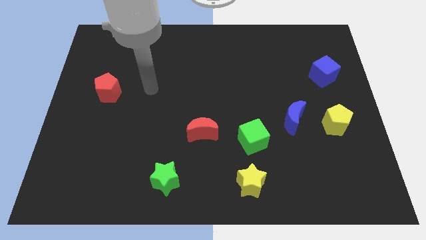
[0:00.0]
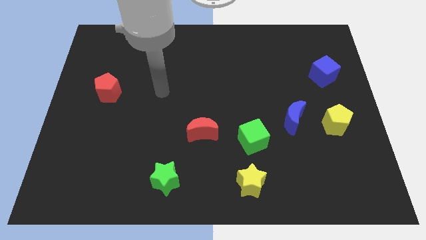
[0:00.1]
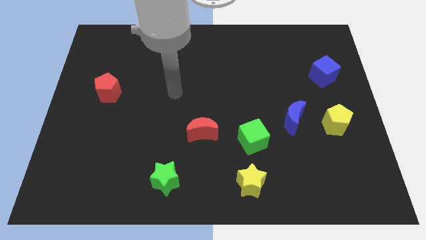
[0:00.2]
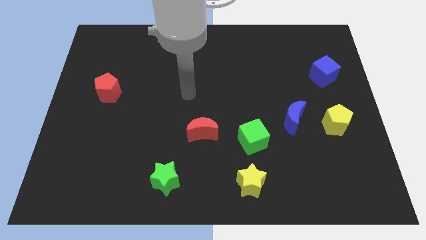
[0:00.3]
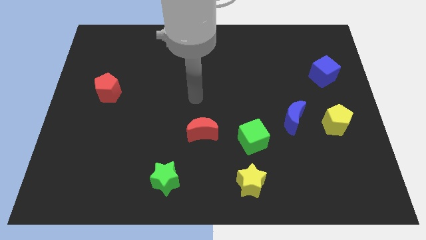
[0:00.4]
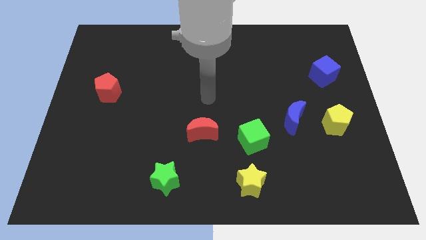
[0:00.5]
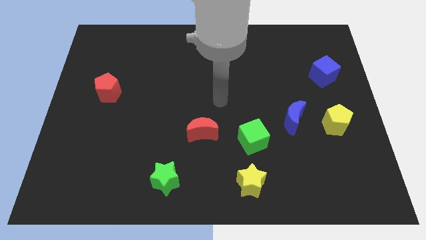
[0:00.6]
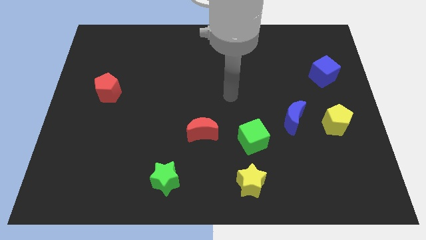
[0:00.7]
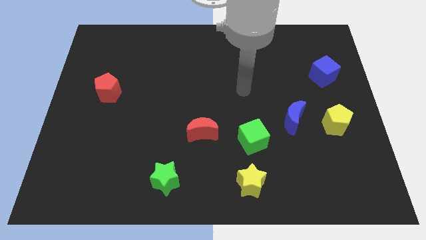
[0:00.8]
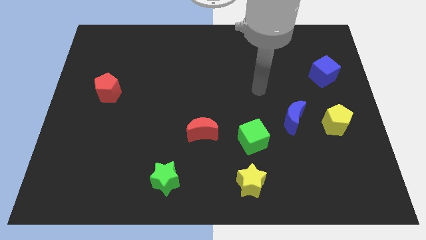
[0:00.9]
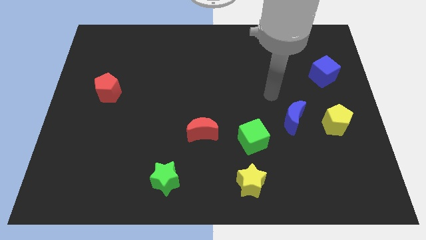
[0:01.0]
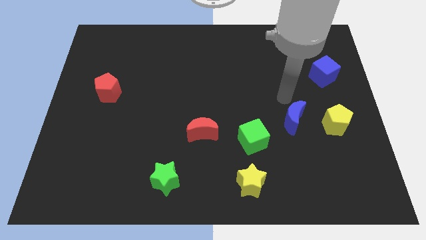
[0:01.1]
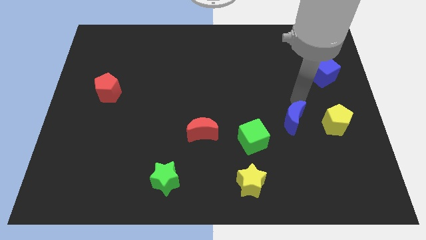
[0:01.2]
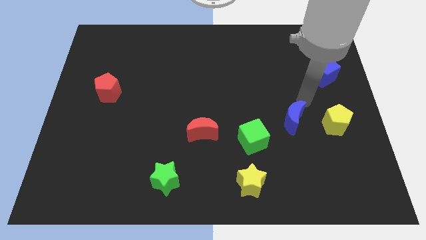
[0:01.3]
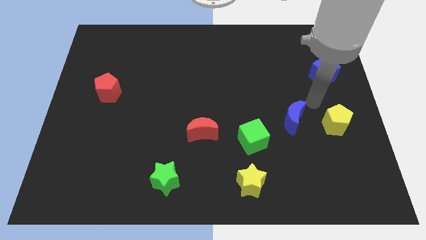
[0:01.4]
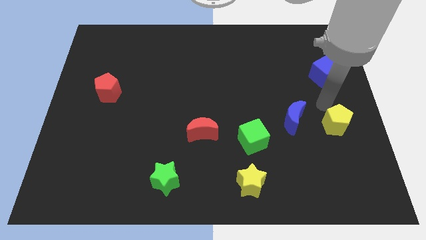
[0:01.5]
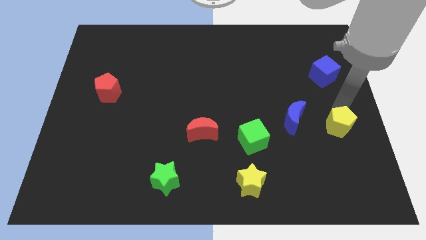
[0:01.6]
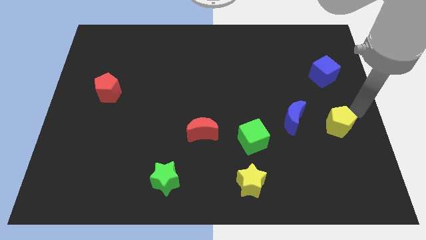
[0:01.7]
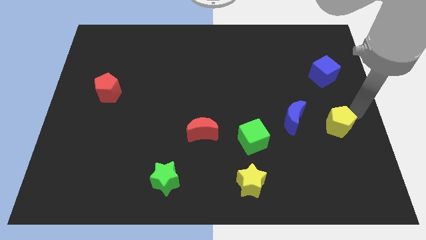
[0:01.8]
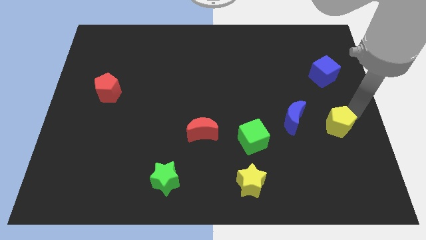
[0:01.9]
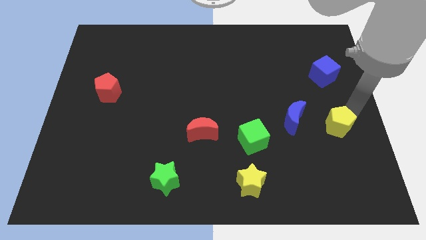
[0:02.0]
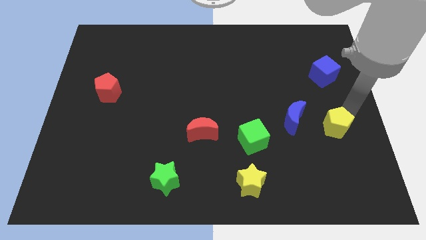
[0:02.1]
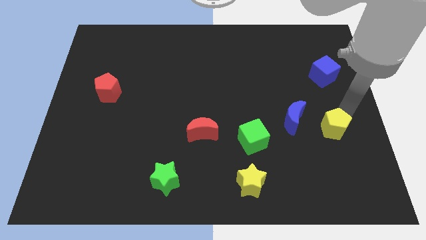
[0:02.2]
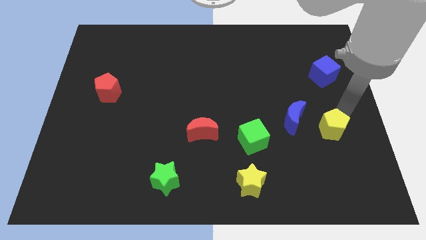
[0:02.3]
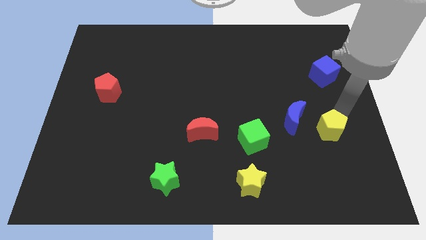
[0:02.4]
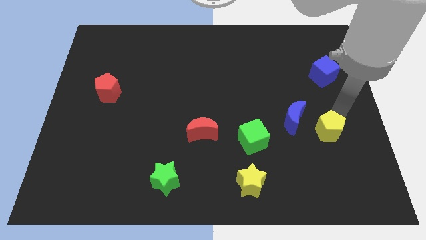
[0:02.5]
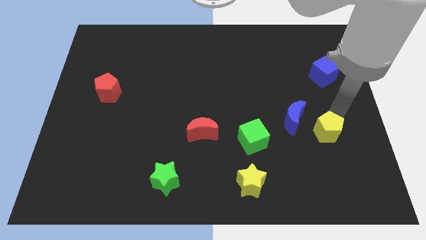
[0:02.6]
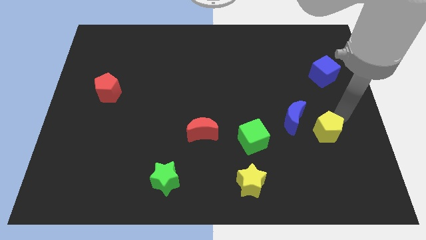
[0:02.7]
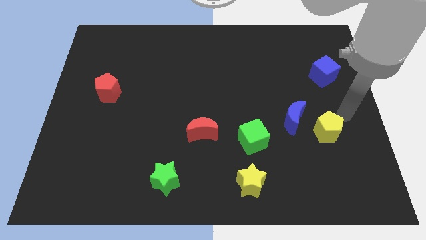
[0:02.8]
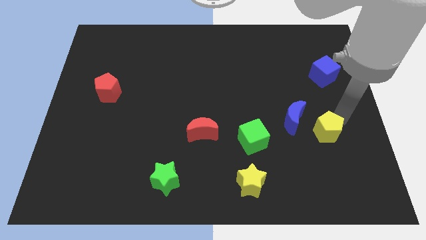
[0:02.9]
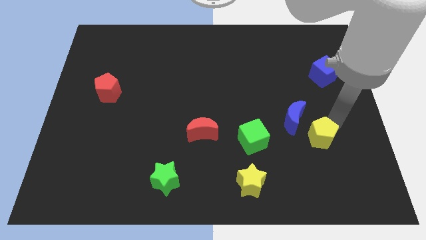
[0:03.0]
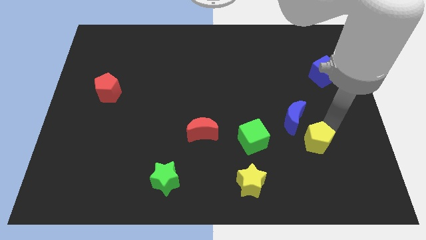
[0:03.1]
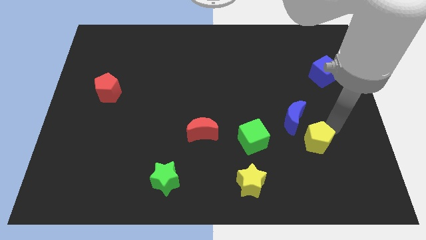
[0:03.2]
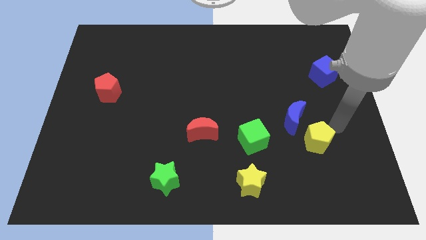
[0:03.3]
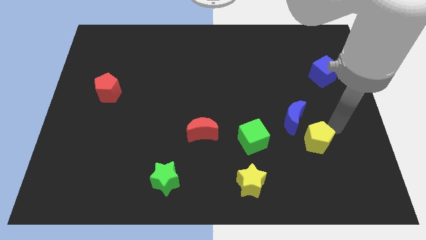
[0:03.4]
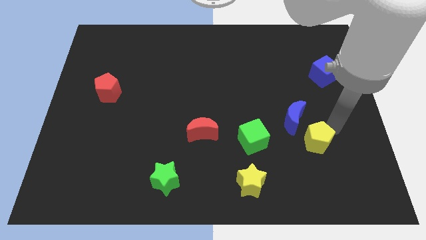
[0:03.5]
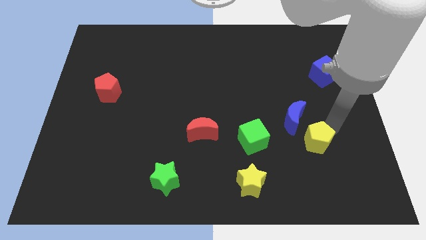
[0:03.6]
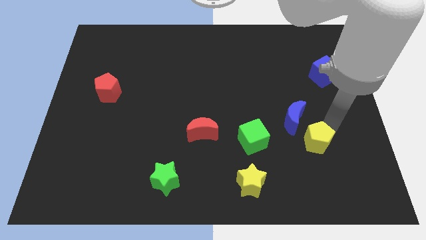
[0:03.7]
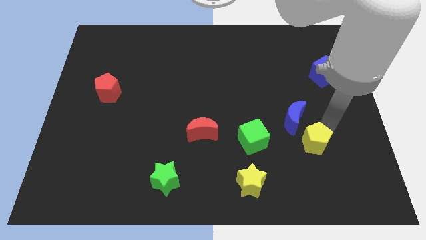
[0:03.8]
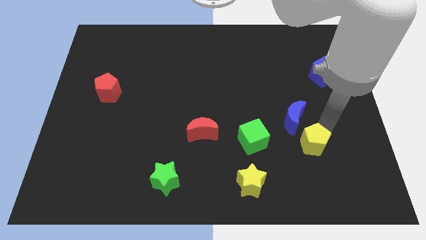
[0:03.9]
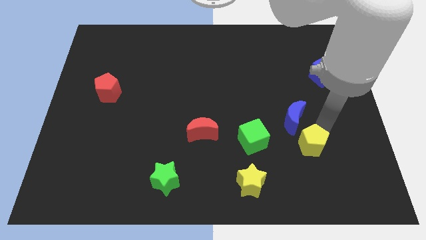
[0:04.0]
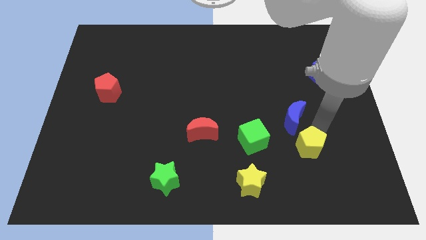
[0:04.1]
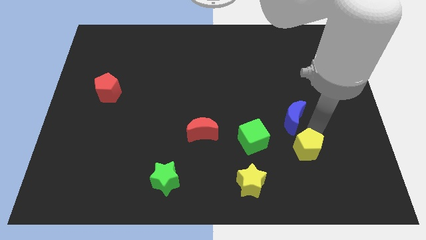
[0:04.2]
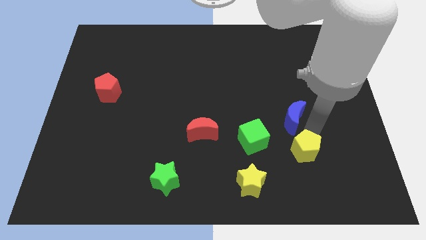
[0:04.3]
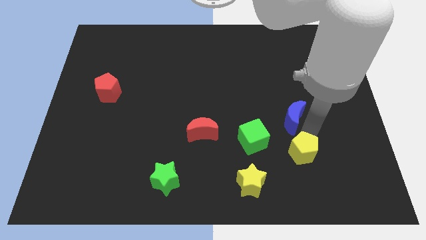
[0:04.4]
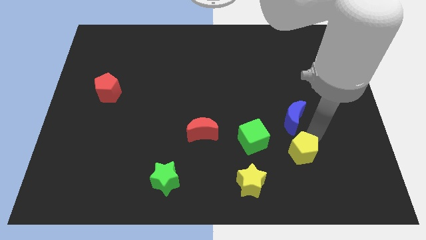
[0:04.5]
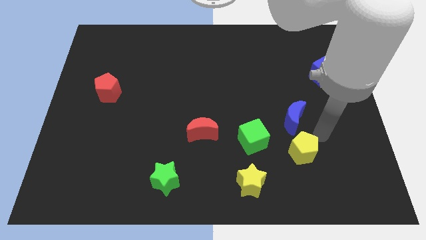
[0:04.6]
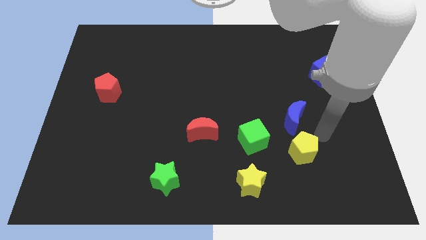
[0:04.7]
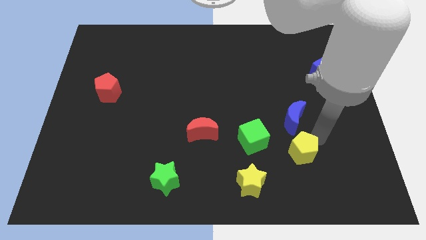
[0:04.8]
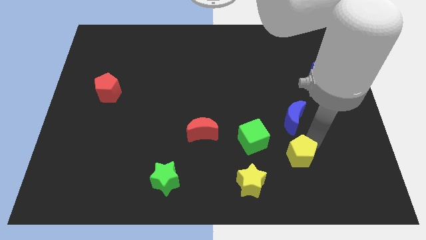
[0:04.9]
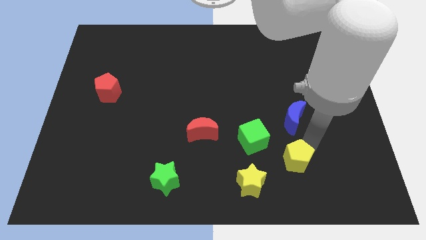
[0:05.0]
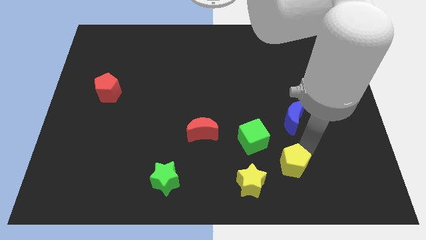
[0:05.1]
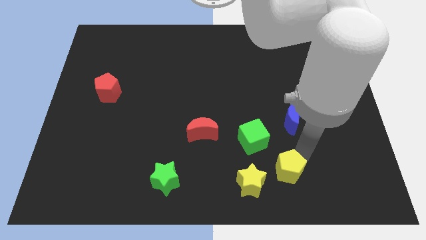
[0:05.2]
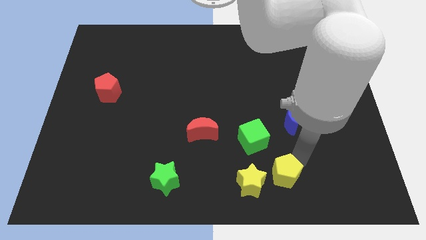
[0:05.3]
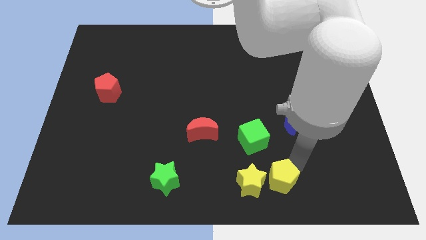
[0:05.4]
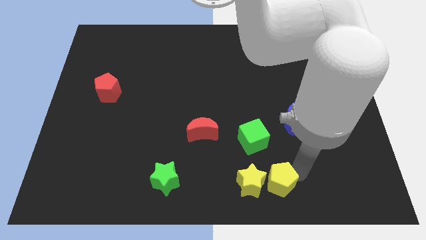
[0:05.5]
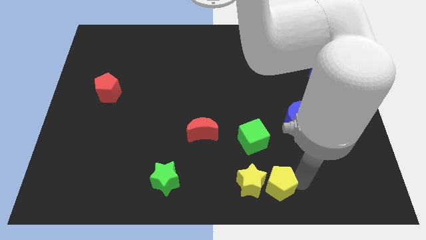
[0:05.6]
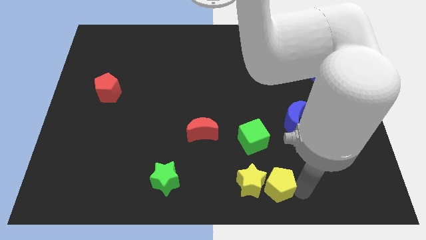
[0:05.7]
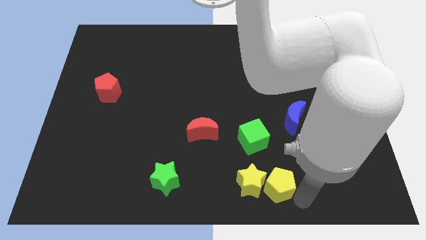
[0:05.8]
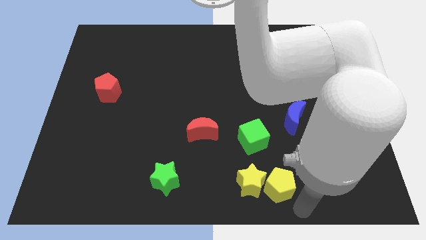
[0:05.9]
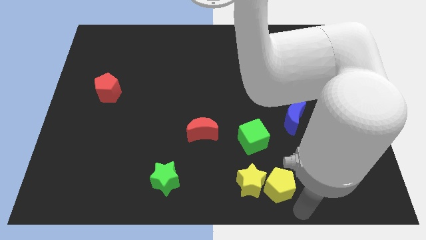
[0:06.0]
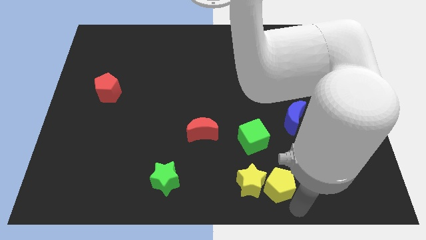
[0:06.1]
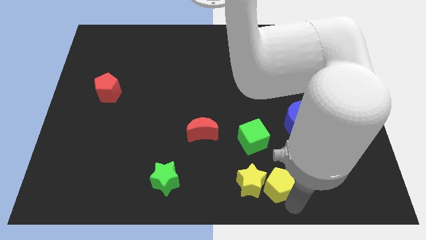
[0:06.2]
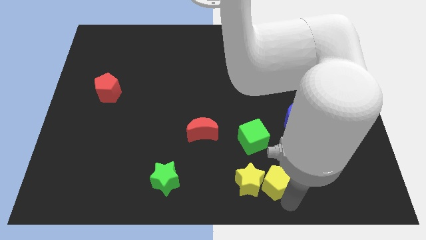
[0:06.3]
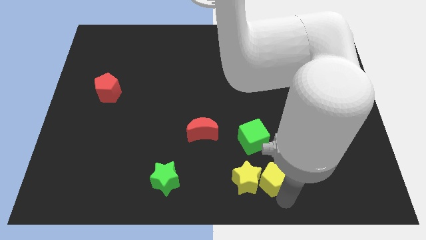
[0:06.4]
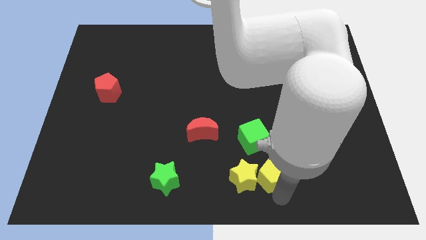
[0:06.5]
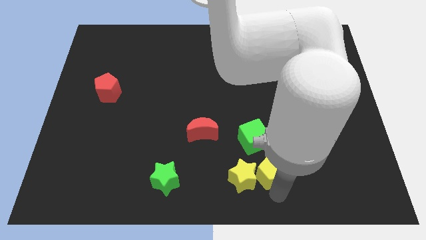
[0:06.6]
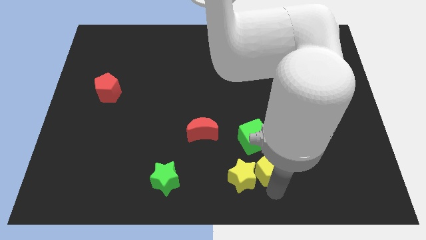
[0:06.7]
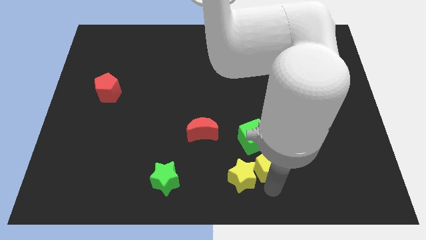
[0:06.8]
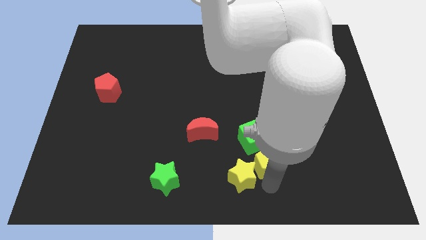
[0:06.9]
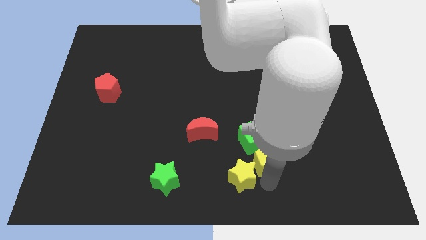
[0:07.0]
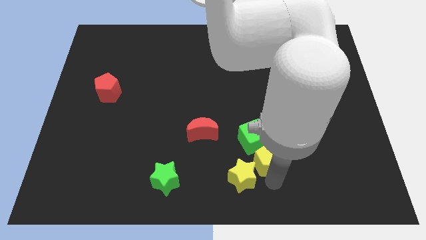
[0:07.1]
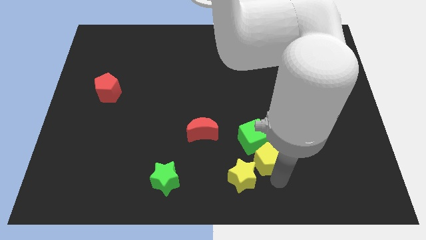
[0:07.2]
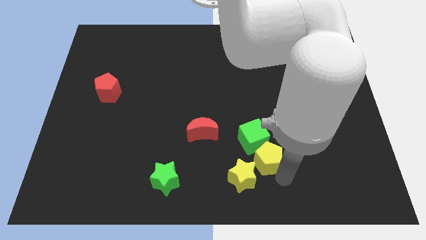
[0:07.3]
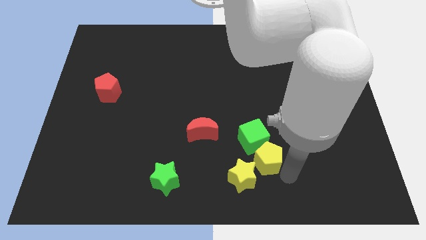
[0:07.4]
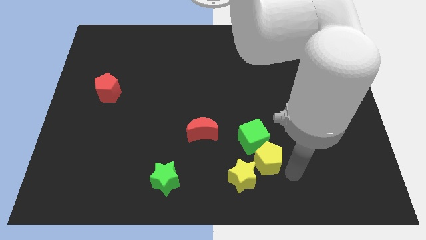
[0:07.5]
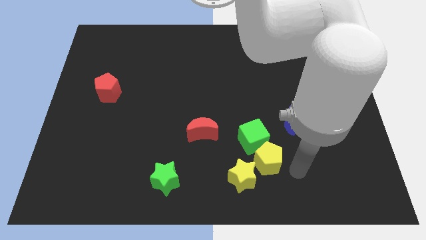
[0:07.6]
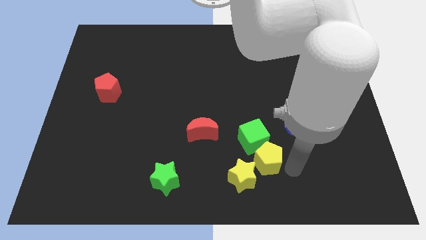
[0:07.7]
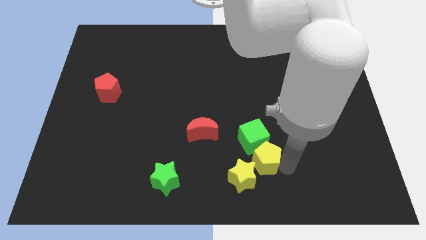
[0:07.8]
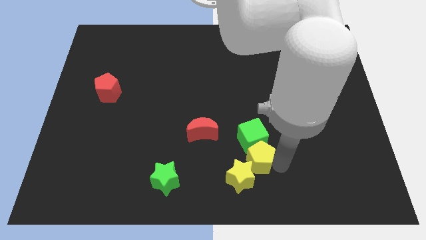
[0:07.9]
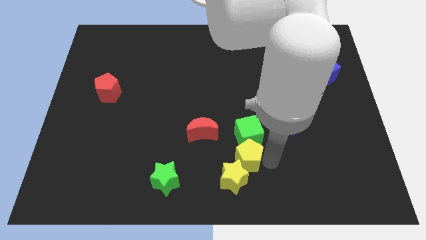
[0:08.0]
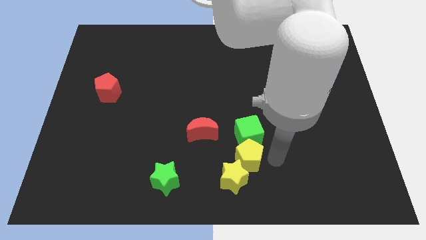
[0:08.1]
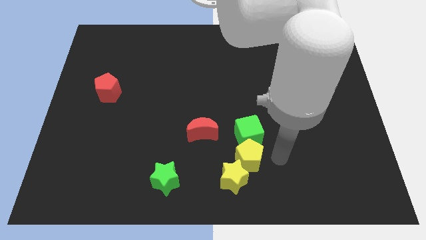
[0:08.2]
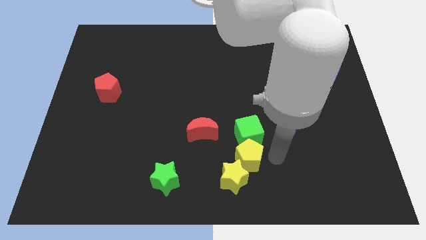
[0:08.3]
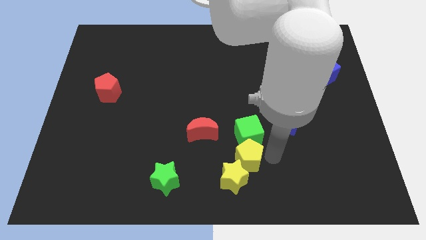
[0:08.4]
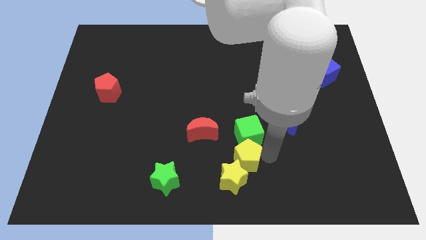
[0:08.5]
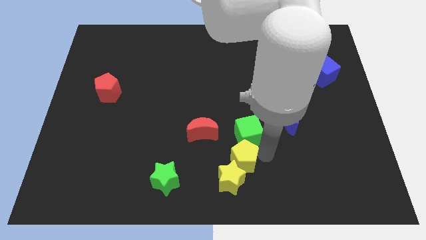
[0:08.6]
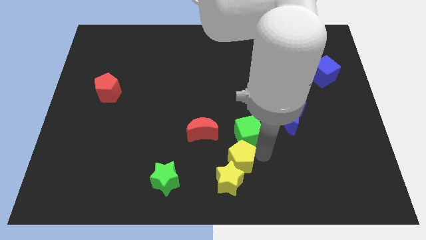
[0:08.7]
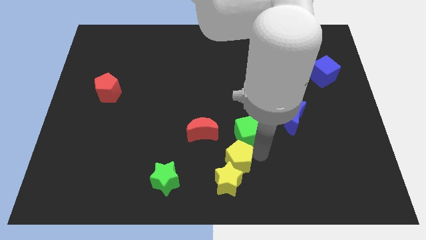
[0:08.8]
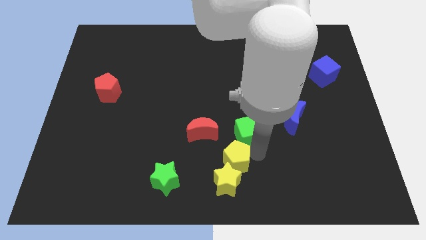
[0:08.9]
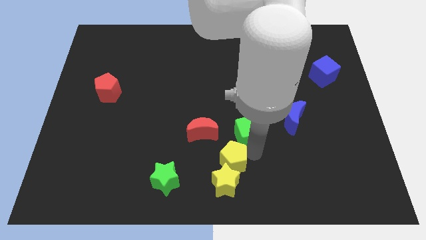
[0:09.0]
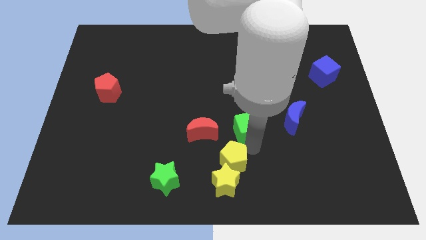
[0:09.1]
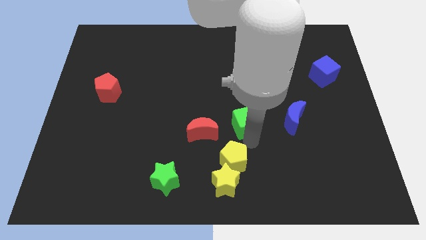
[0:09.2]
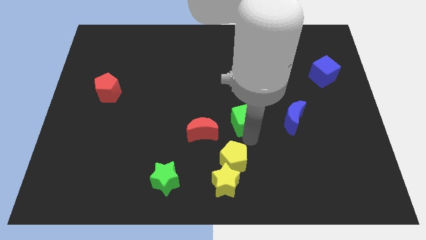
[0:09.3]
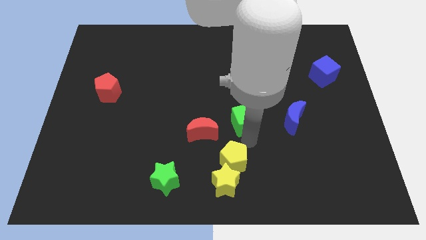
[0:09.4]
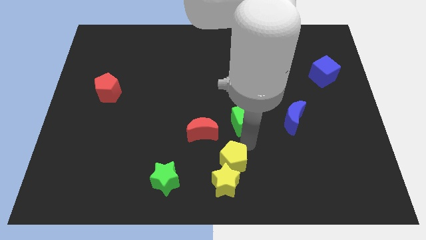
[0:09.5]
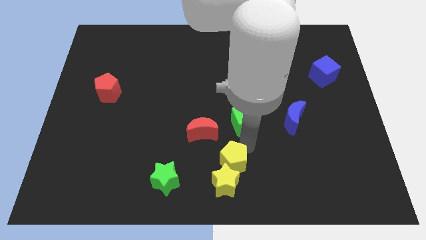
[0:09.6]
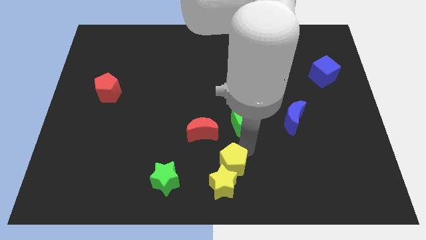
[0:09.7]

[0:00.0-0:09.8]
push the yellow pentagon to the right side of the green star
